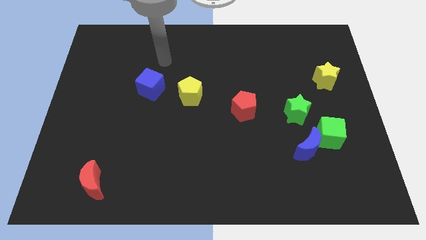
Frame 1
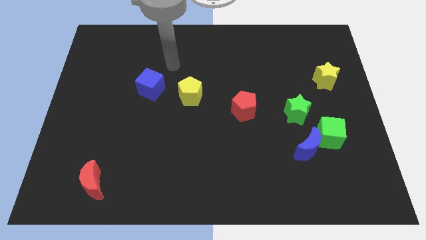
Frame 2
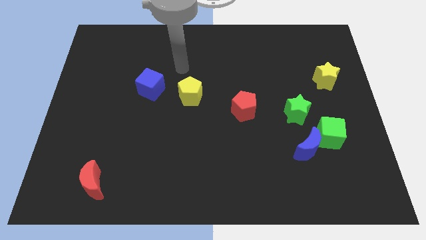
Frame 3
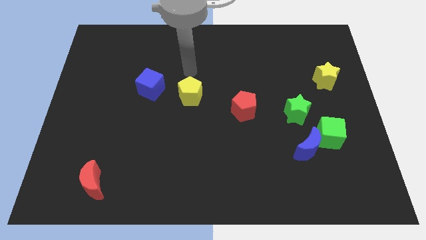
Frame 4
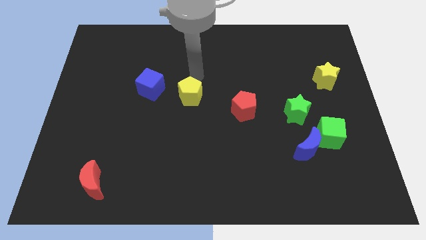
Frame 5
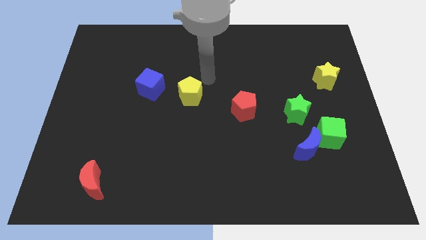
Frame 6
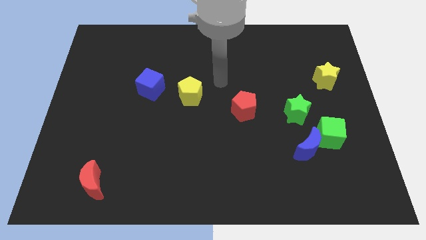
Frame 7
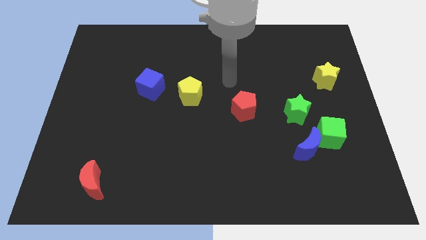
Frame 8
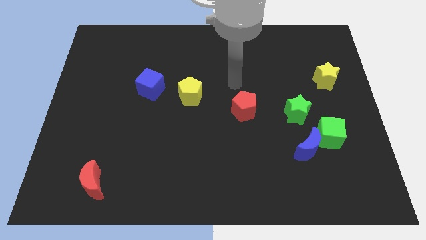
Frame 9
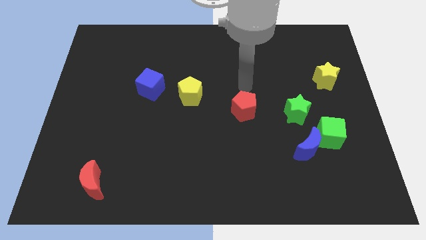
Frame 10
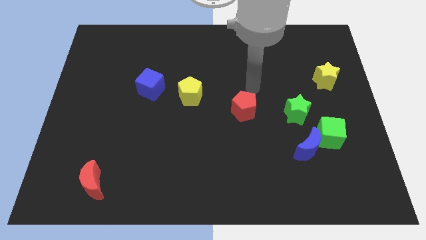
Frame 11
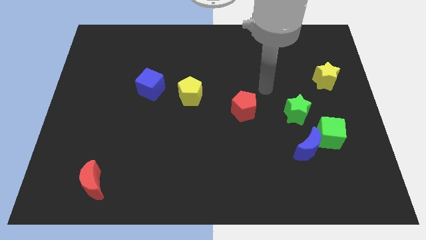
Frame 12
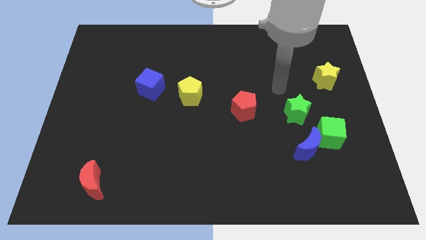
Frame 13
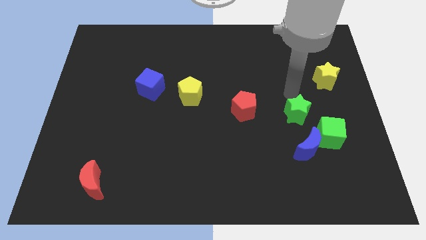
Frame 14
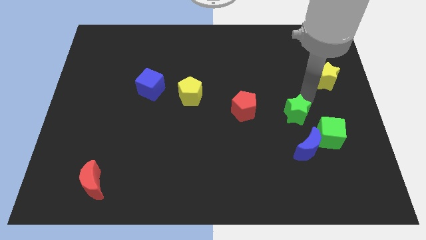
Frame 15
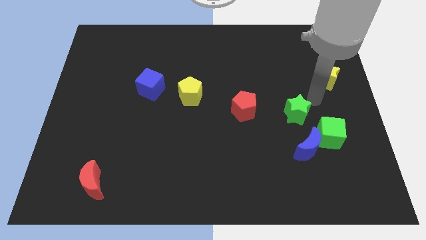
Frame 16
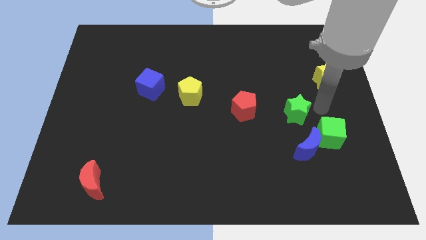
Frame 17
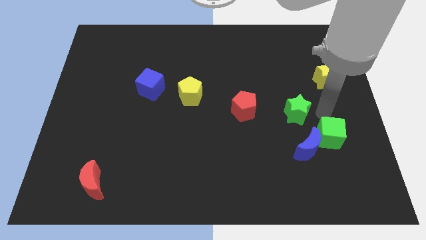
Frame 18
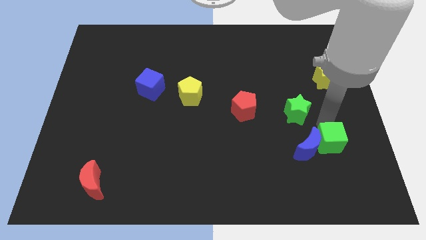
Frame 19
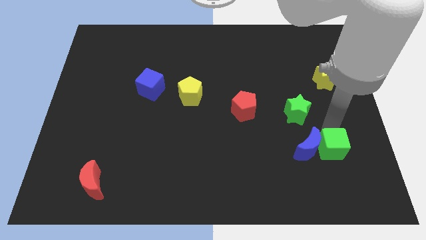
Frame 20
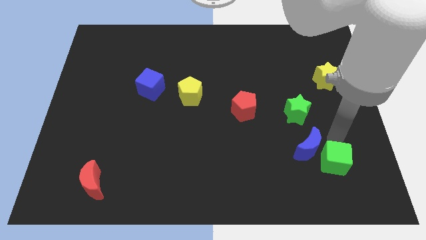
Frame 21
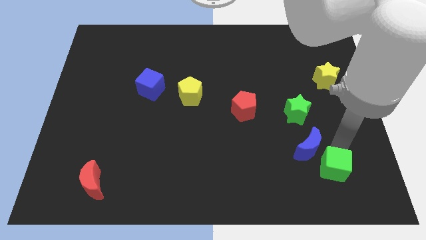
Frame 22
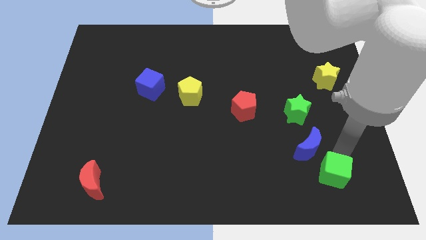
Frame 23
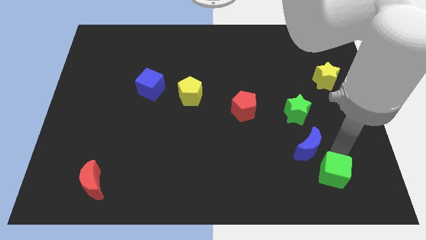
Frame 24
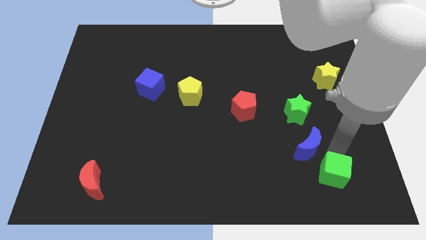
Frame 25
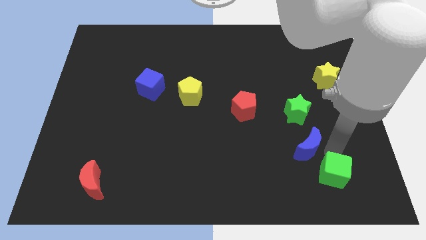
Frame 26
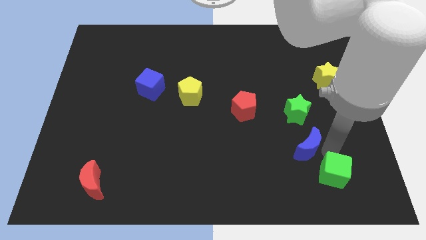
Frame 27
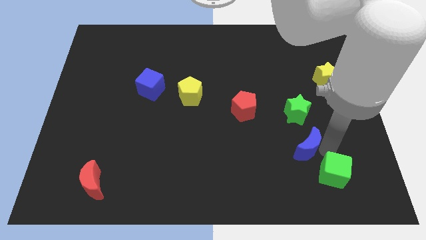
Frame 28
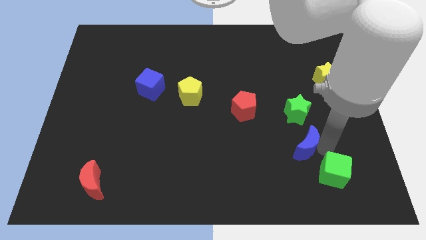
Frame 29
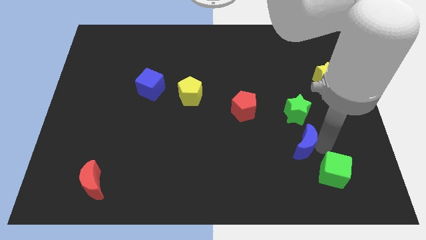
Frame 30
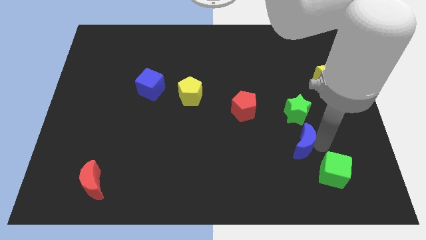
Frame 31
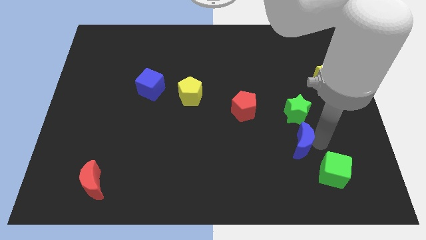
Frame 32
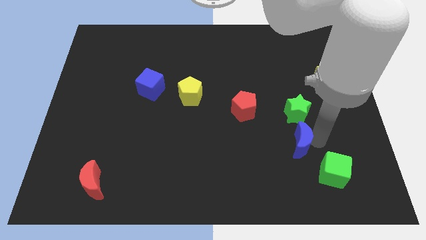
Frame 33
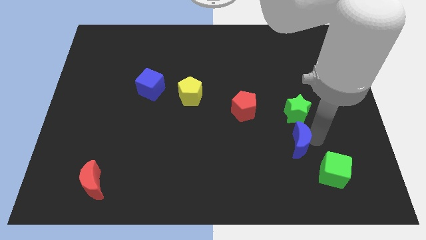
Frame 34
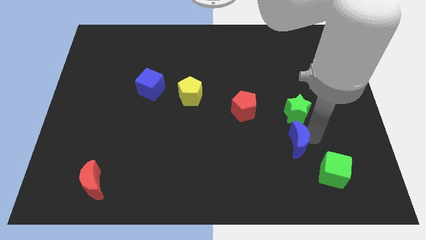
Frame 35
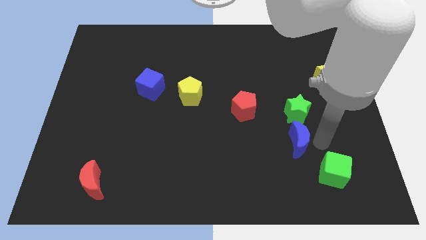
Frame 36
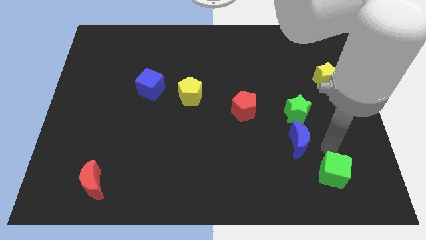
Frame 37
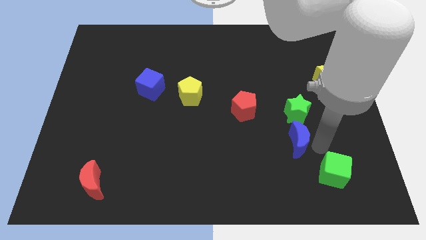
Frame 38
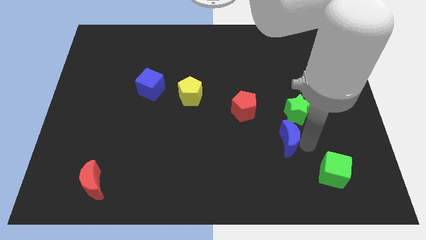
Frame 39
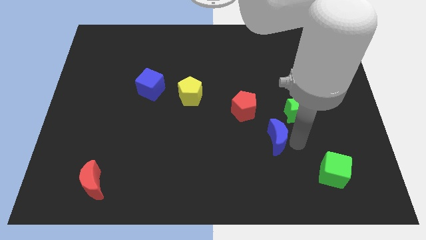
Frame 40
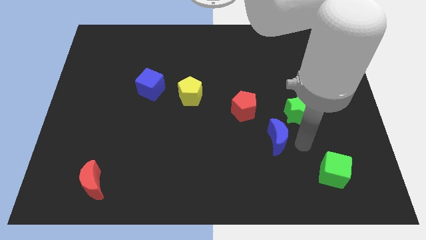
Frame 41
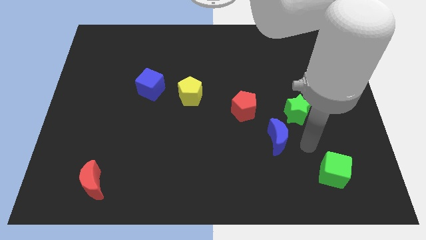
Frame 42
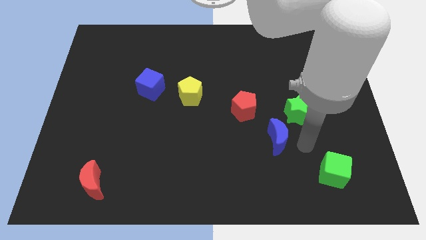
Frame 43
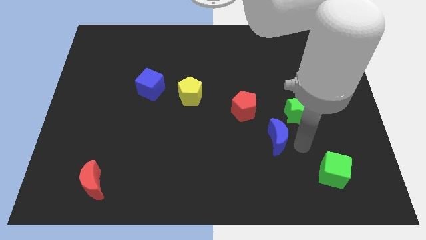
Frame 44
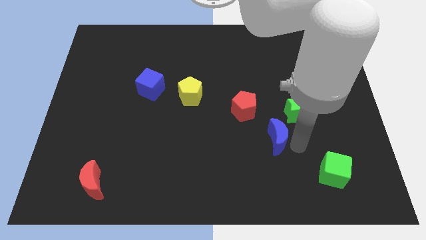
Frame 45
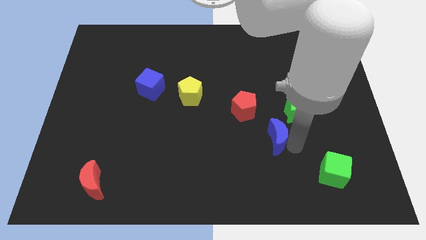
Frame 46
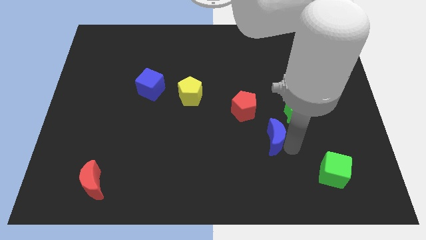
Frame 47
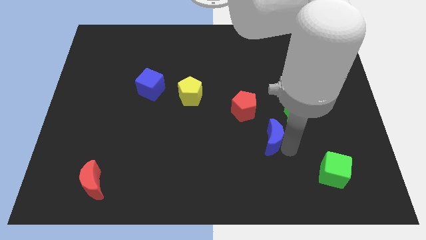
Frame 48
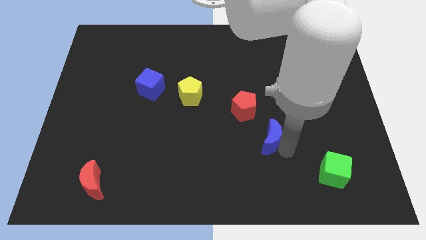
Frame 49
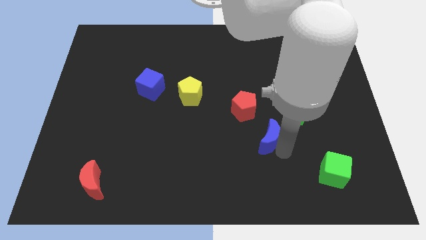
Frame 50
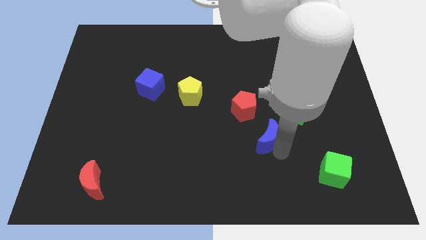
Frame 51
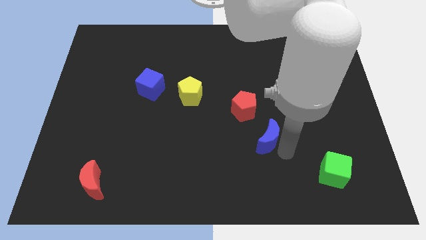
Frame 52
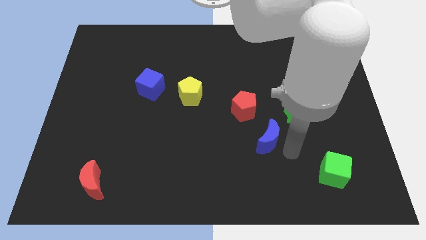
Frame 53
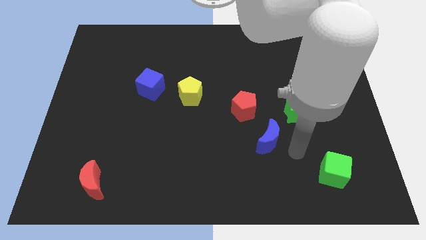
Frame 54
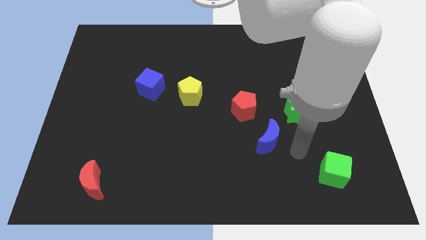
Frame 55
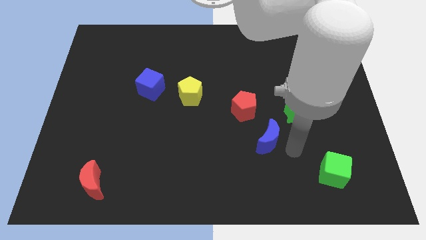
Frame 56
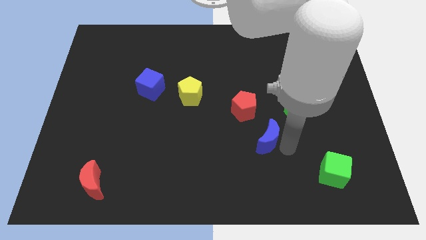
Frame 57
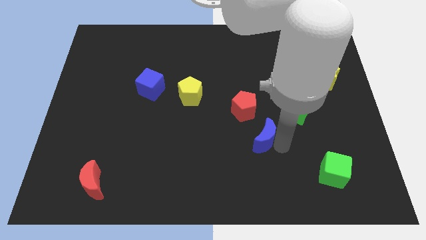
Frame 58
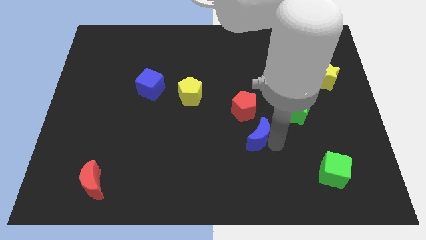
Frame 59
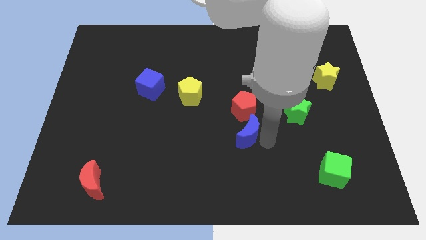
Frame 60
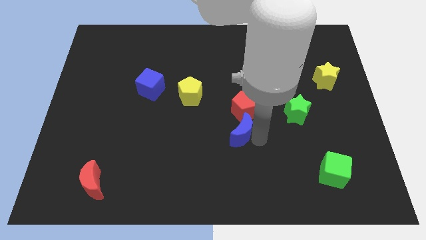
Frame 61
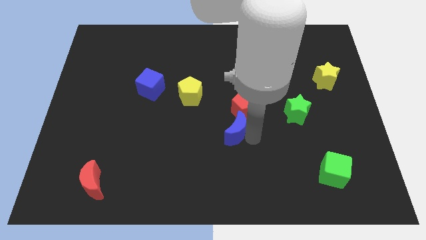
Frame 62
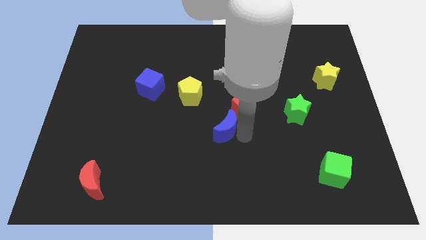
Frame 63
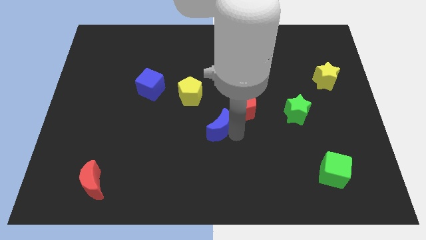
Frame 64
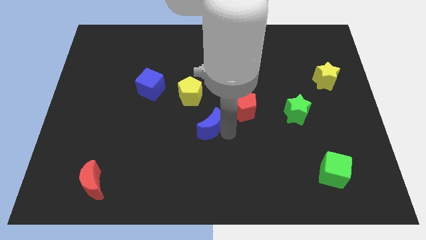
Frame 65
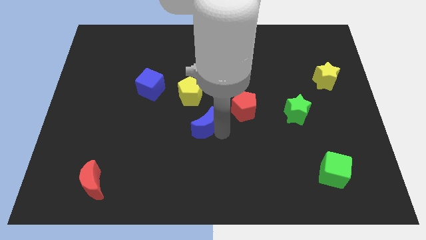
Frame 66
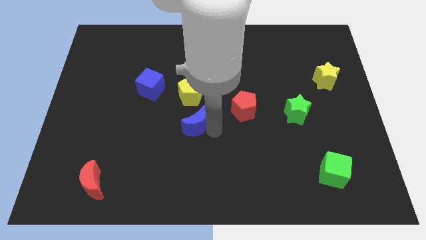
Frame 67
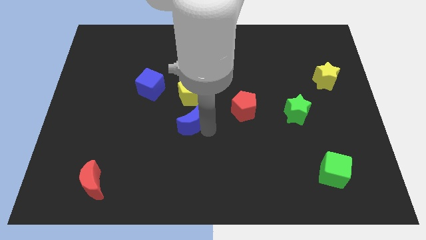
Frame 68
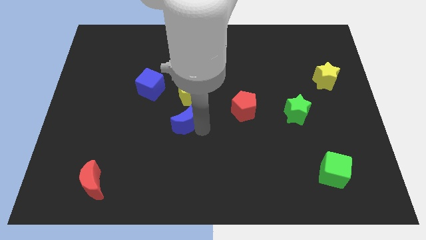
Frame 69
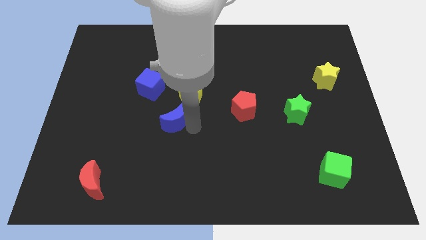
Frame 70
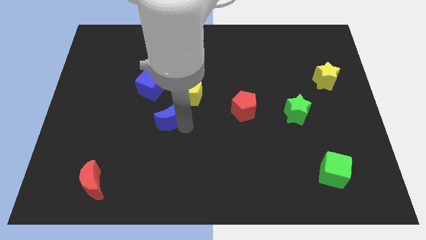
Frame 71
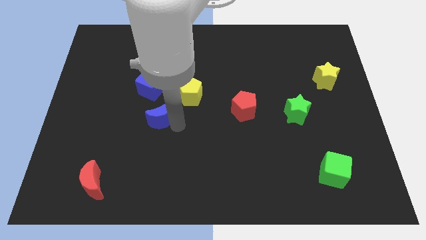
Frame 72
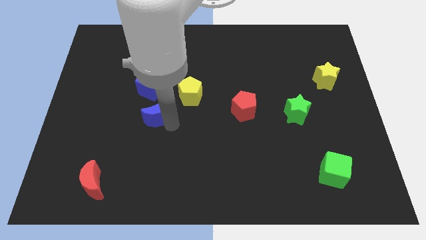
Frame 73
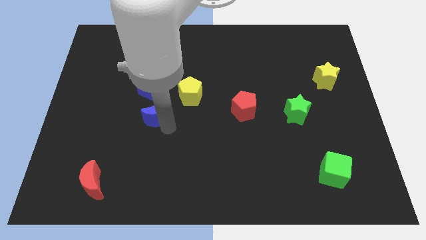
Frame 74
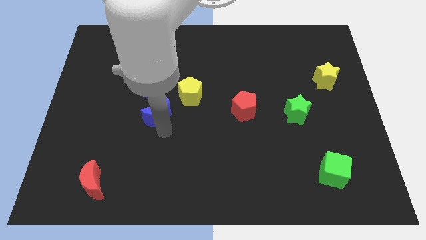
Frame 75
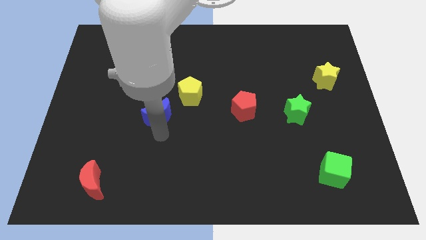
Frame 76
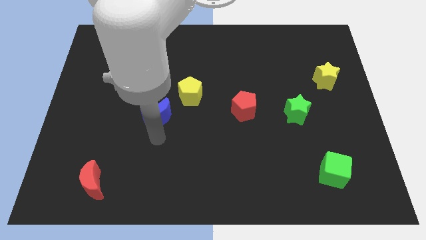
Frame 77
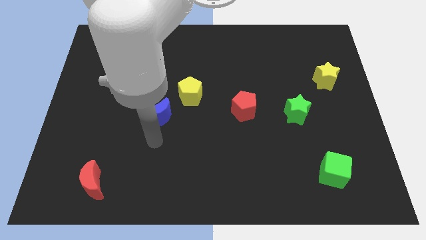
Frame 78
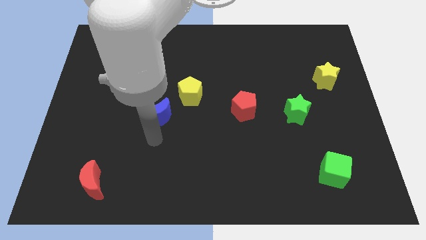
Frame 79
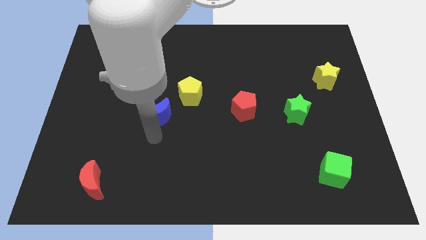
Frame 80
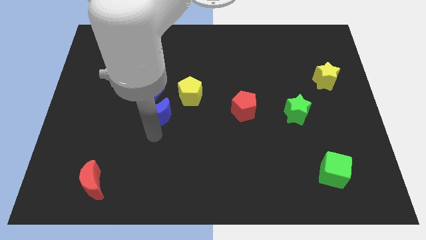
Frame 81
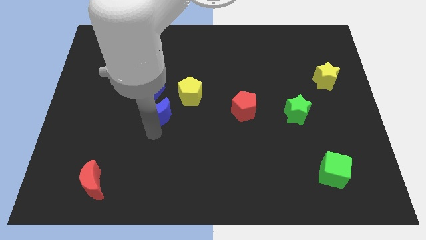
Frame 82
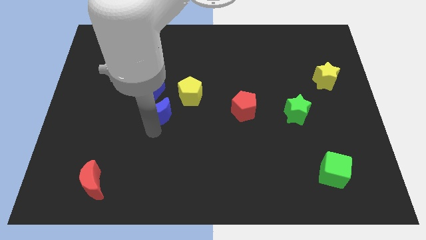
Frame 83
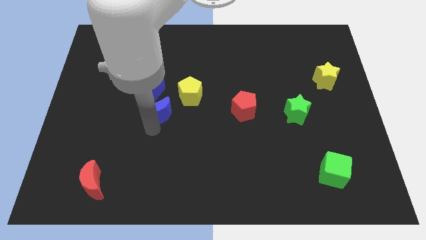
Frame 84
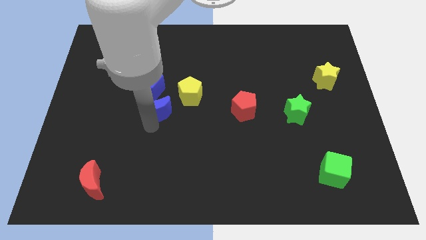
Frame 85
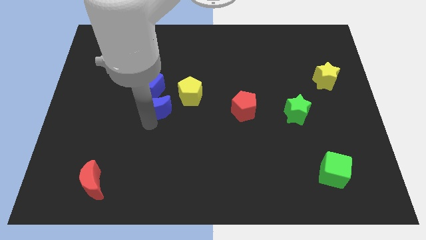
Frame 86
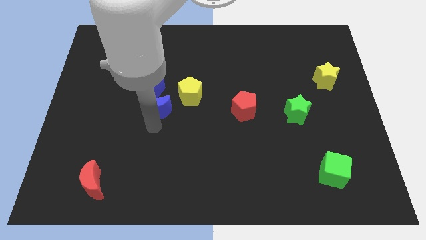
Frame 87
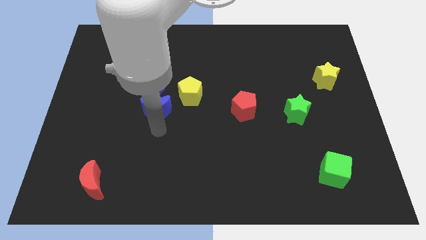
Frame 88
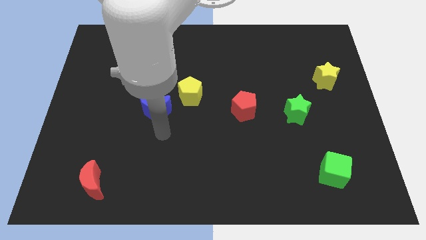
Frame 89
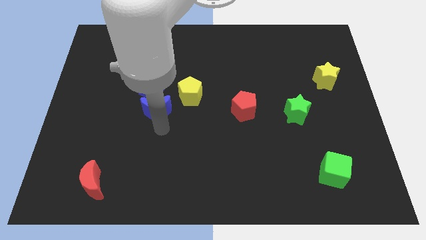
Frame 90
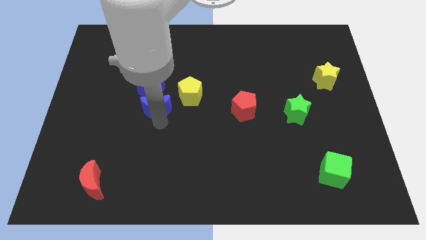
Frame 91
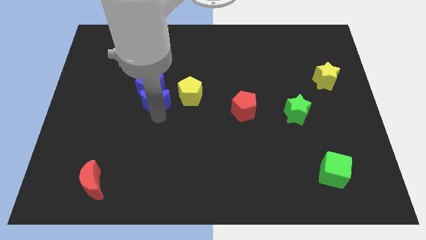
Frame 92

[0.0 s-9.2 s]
push the blue moon towards the blue cube
